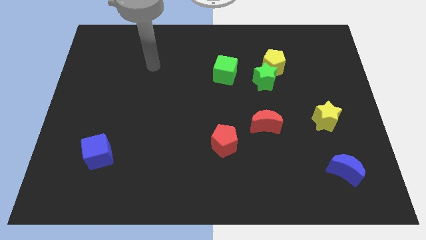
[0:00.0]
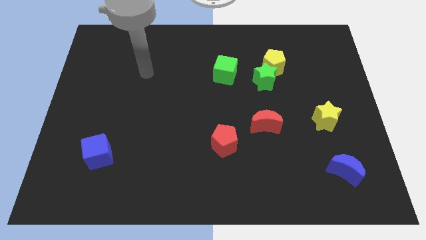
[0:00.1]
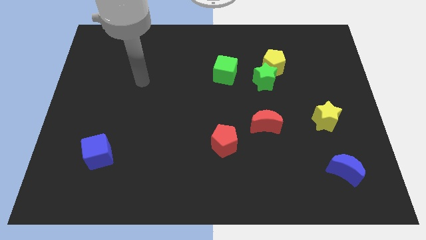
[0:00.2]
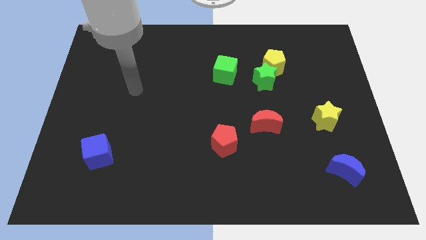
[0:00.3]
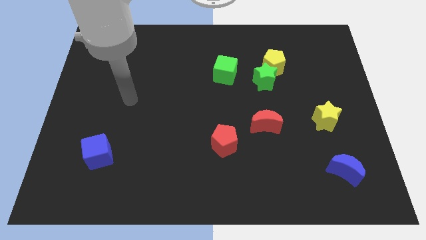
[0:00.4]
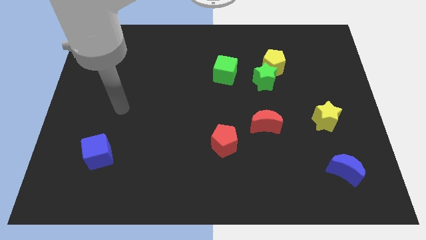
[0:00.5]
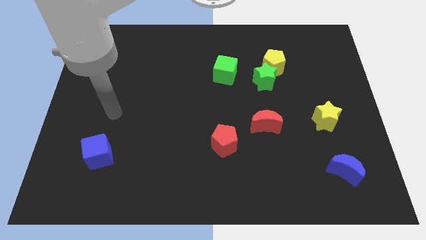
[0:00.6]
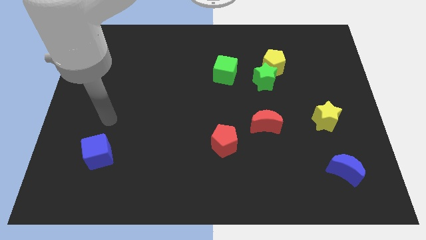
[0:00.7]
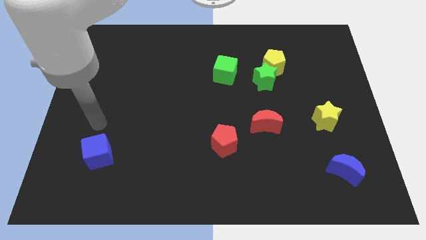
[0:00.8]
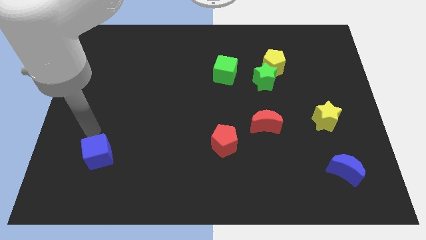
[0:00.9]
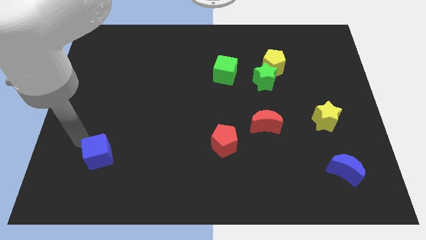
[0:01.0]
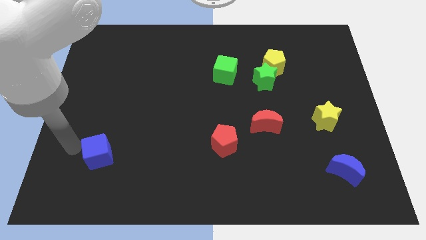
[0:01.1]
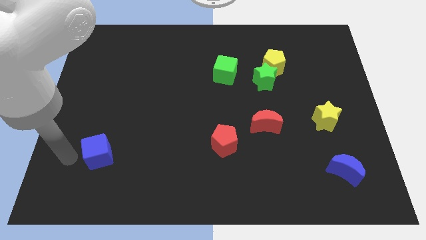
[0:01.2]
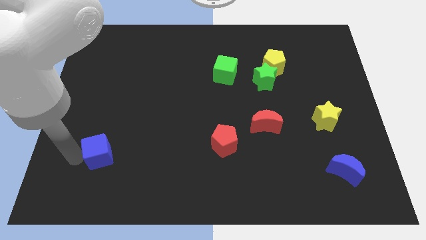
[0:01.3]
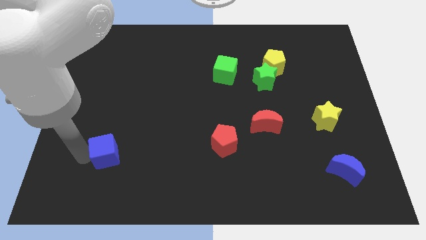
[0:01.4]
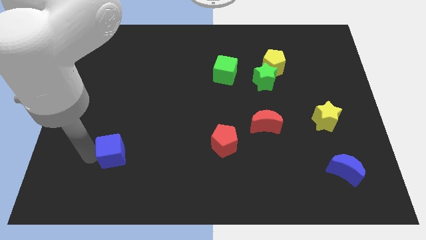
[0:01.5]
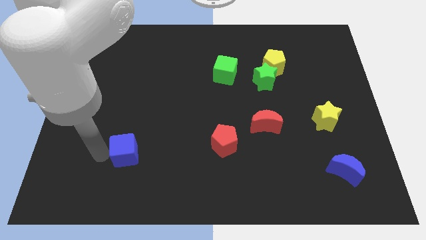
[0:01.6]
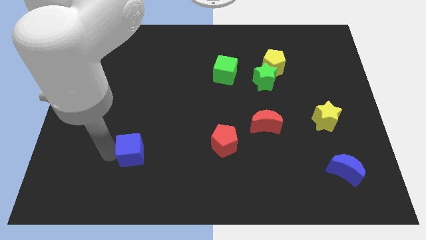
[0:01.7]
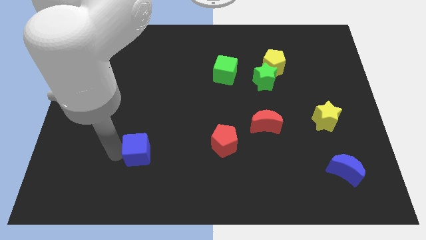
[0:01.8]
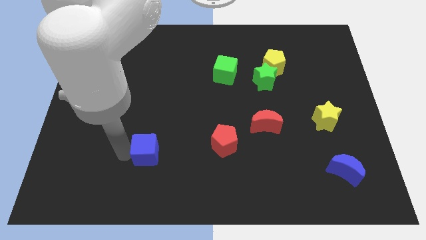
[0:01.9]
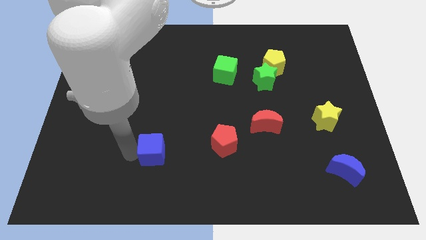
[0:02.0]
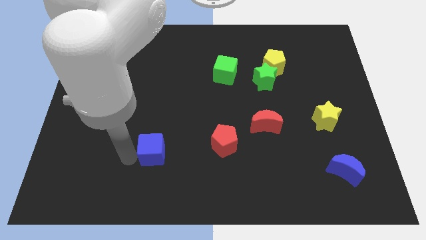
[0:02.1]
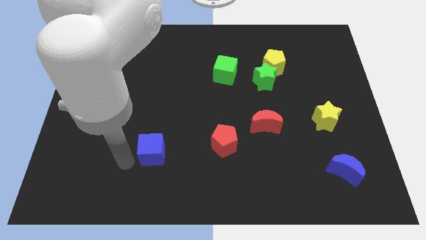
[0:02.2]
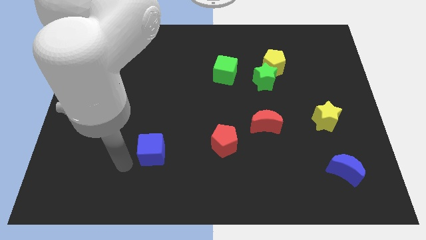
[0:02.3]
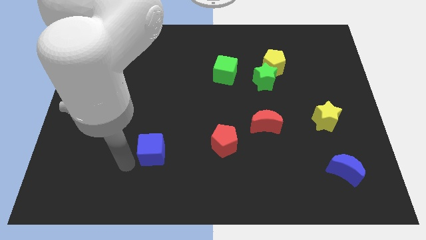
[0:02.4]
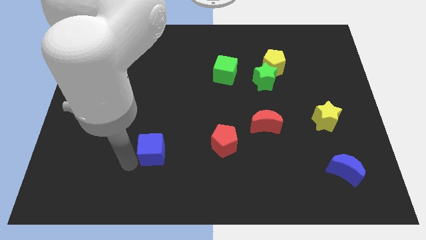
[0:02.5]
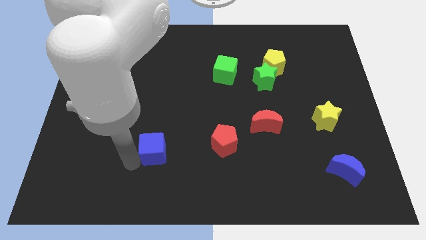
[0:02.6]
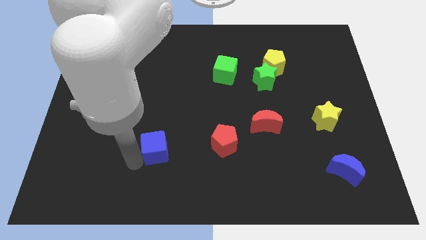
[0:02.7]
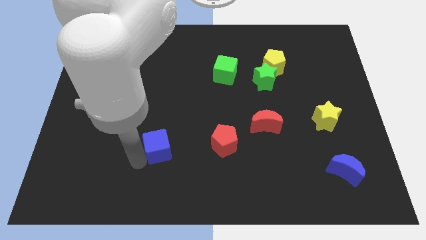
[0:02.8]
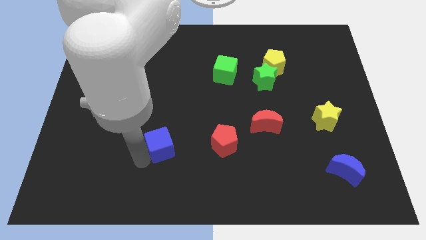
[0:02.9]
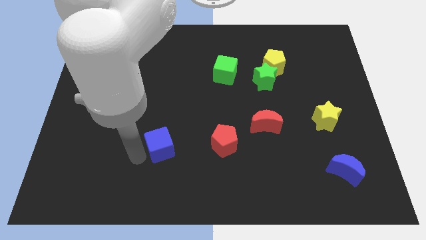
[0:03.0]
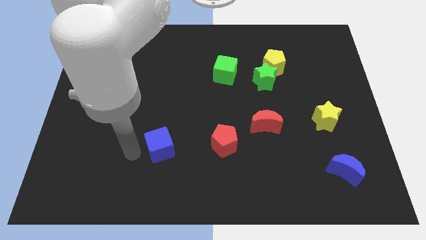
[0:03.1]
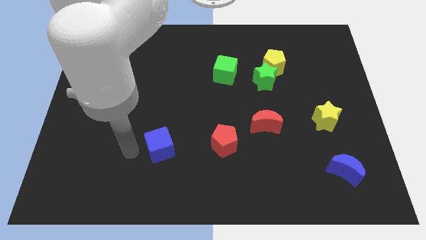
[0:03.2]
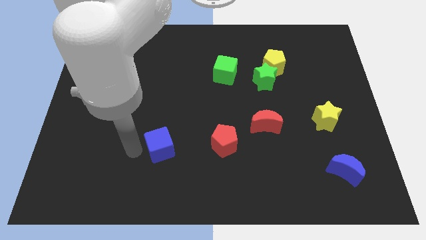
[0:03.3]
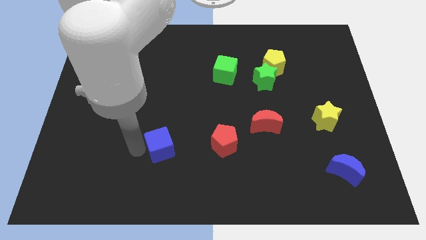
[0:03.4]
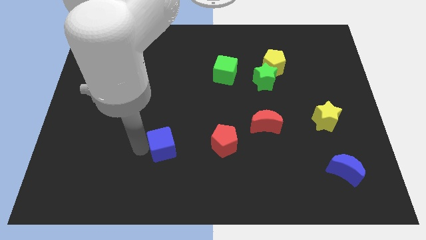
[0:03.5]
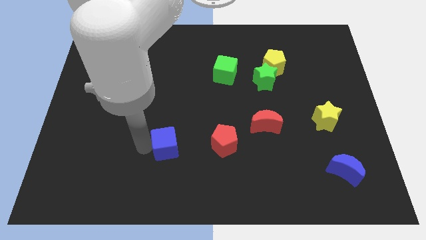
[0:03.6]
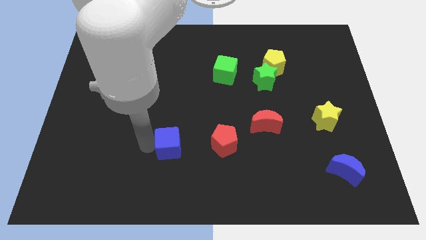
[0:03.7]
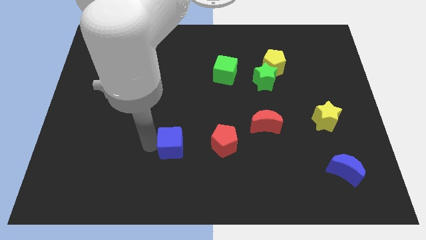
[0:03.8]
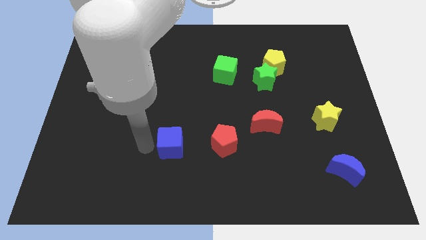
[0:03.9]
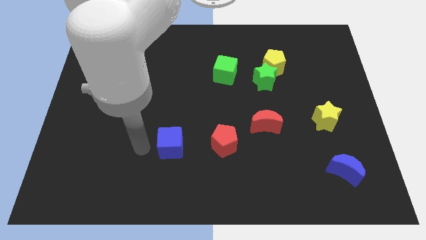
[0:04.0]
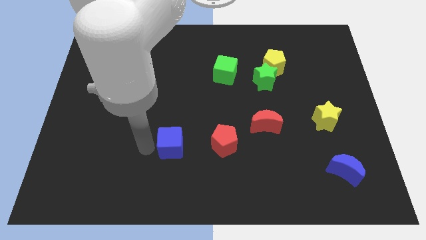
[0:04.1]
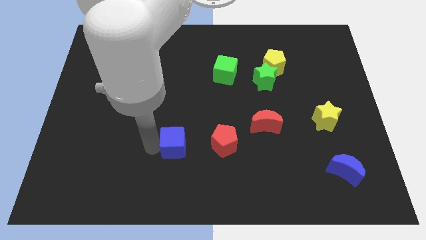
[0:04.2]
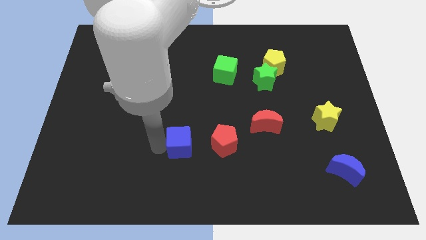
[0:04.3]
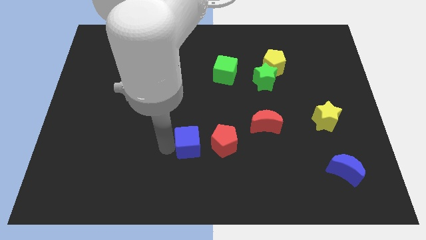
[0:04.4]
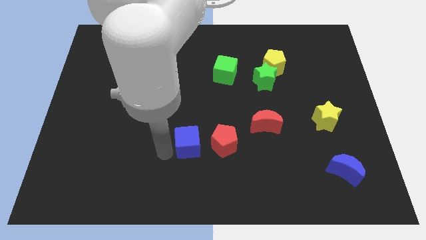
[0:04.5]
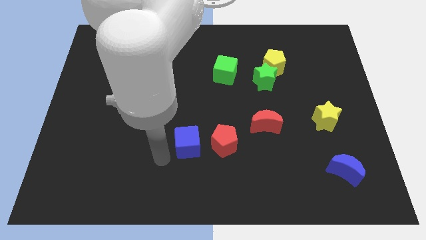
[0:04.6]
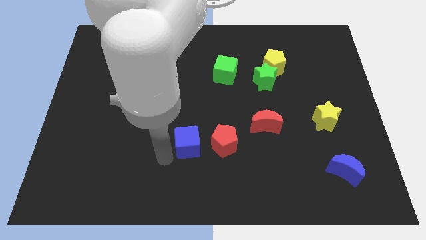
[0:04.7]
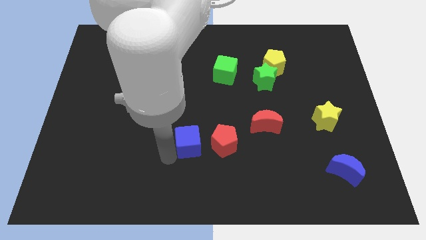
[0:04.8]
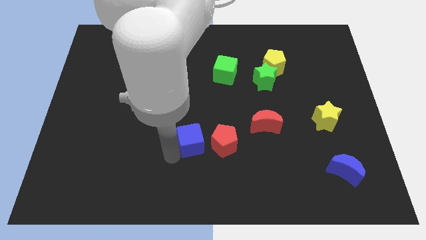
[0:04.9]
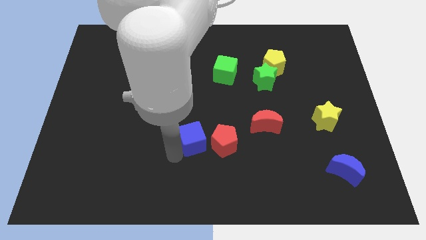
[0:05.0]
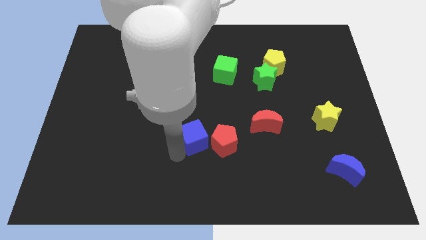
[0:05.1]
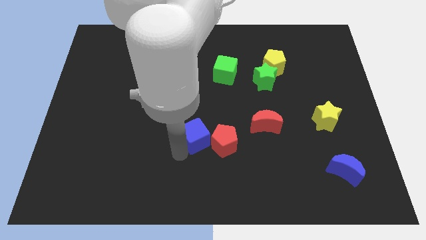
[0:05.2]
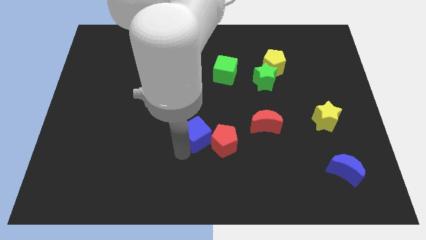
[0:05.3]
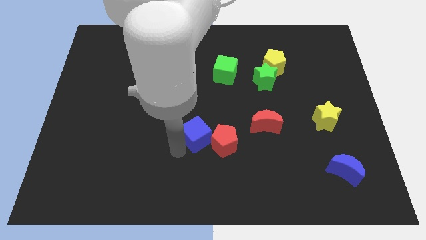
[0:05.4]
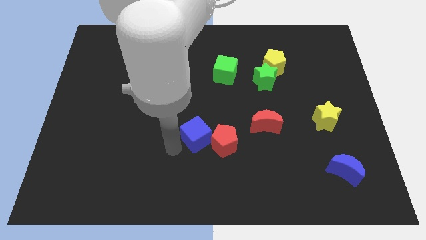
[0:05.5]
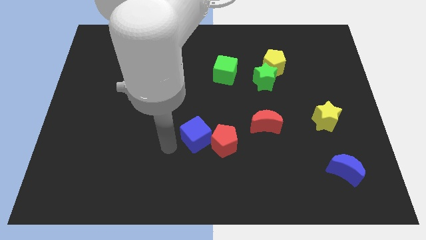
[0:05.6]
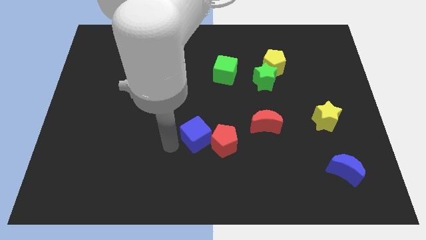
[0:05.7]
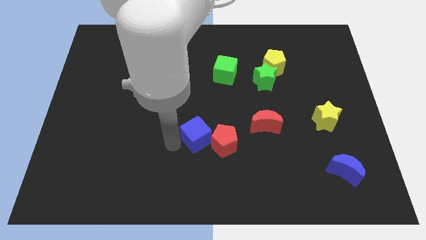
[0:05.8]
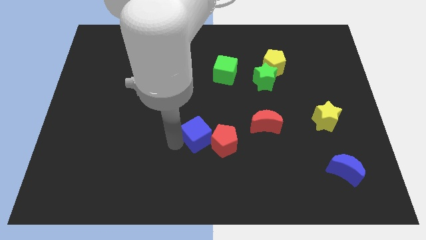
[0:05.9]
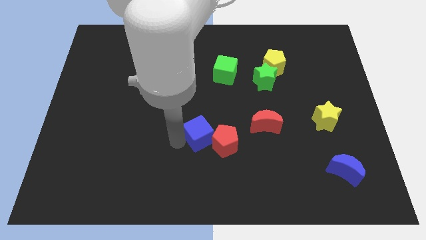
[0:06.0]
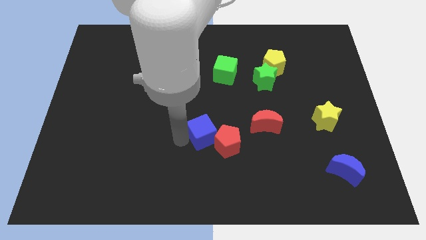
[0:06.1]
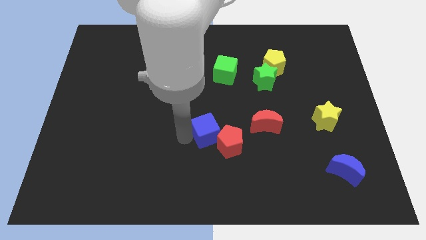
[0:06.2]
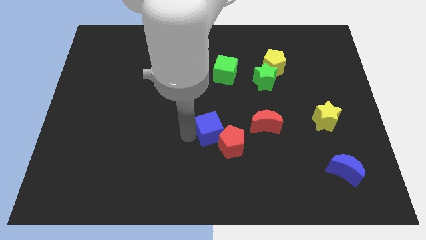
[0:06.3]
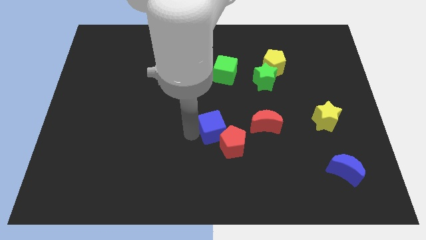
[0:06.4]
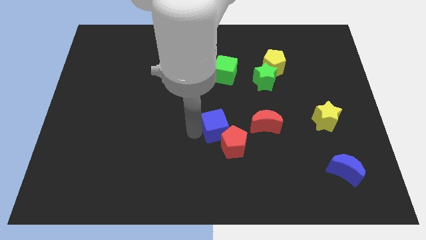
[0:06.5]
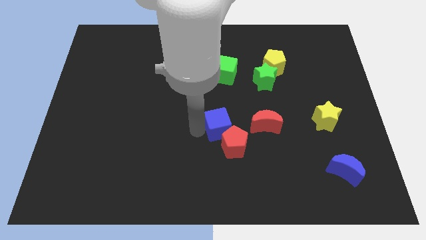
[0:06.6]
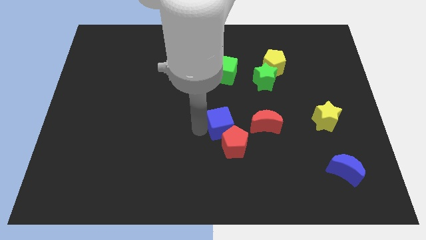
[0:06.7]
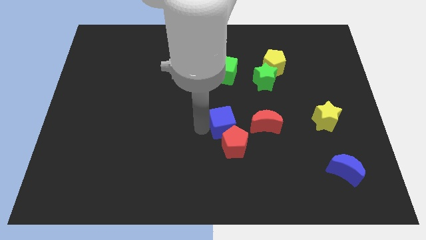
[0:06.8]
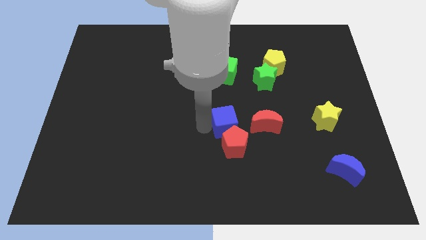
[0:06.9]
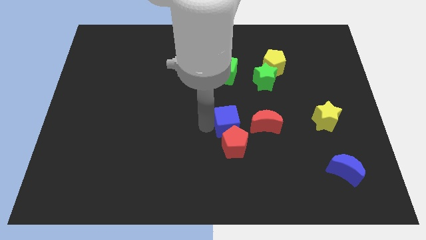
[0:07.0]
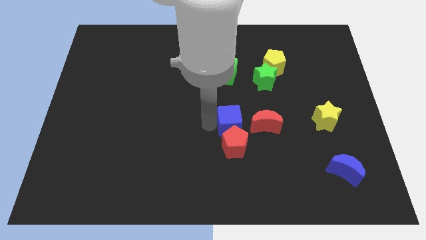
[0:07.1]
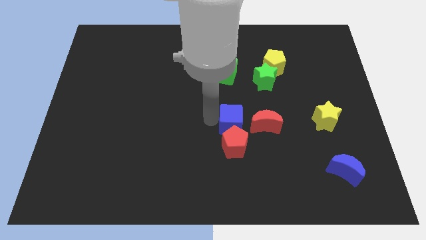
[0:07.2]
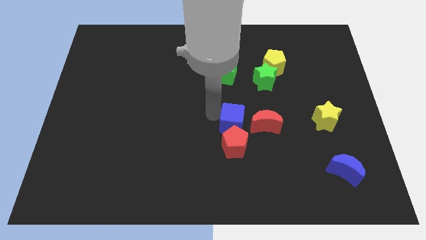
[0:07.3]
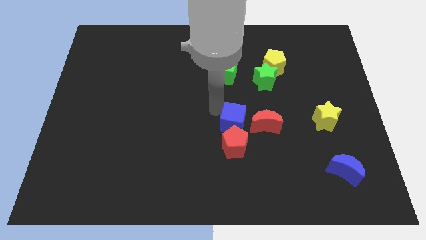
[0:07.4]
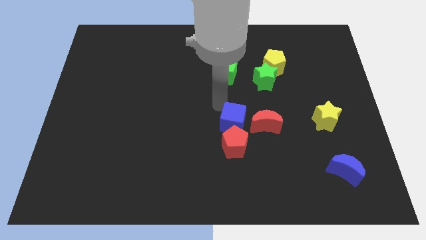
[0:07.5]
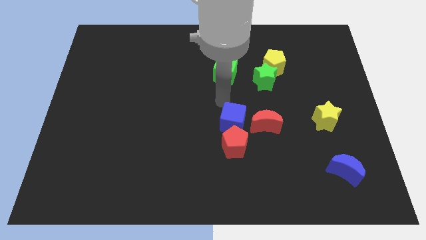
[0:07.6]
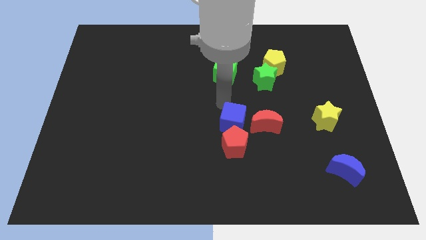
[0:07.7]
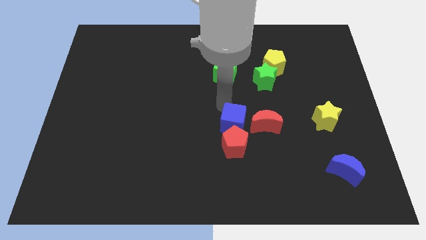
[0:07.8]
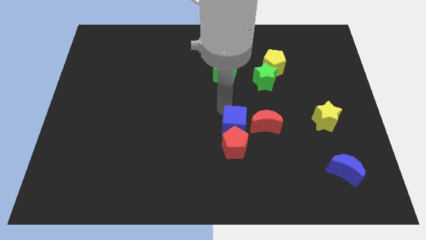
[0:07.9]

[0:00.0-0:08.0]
move the blue cube diagonally down and to the left of the red moon
